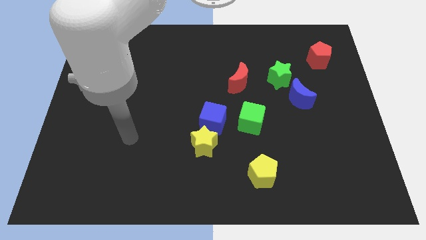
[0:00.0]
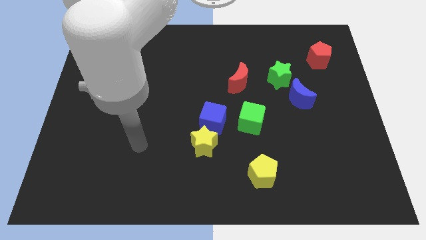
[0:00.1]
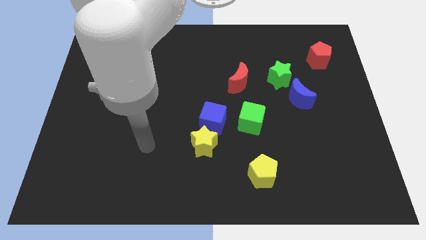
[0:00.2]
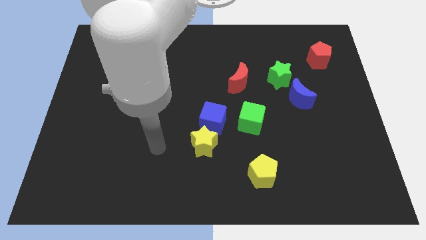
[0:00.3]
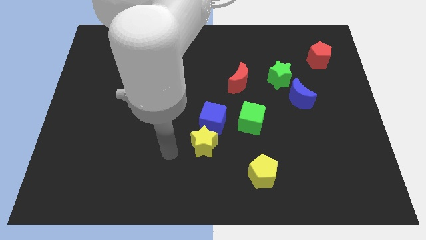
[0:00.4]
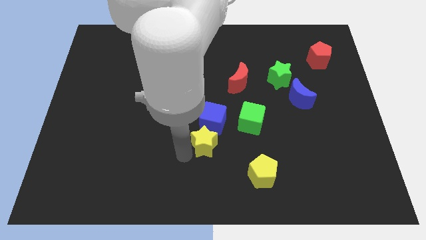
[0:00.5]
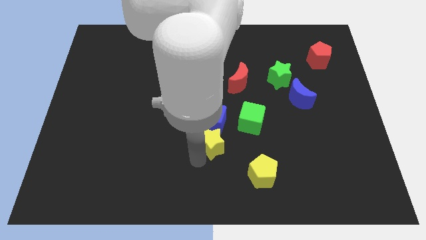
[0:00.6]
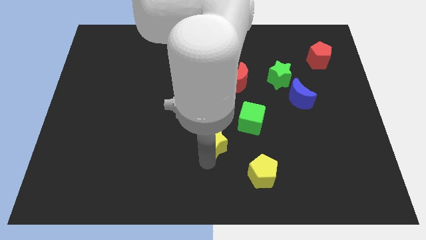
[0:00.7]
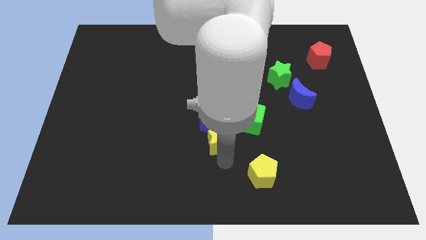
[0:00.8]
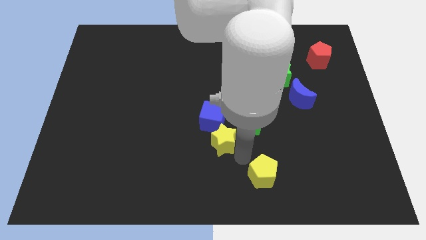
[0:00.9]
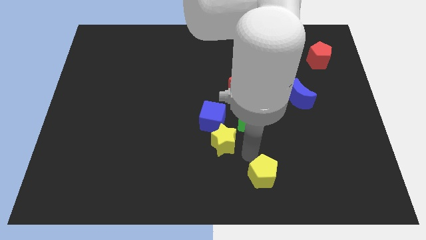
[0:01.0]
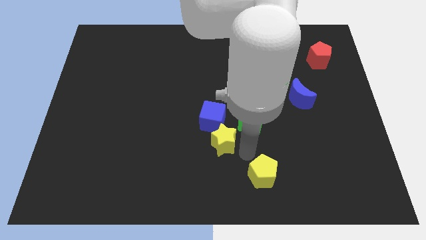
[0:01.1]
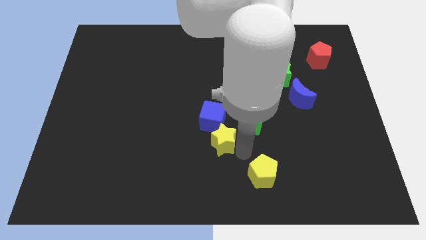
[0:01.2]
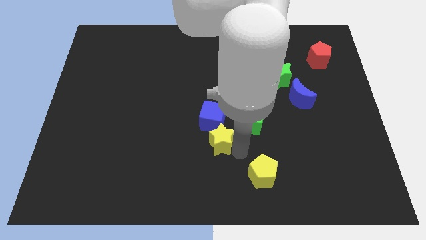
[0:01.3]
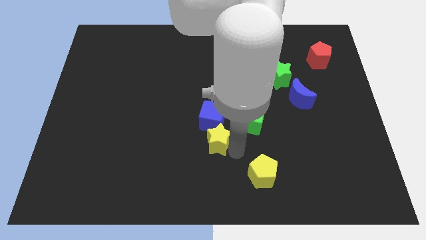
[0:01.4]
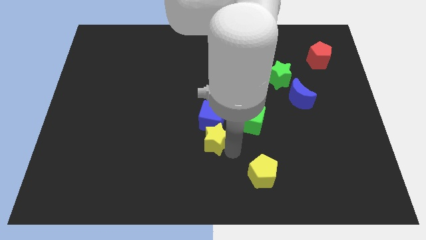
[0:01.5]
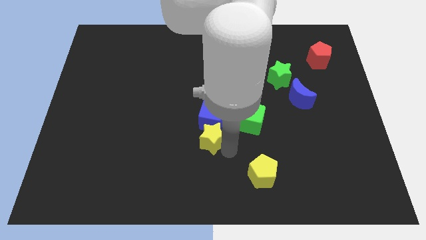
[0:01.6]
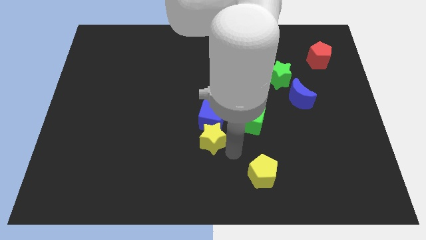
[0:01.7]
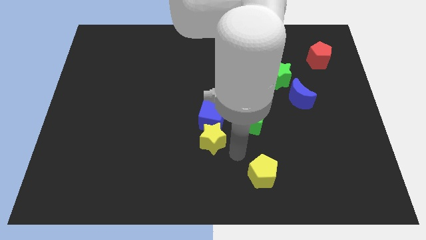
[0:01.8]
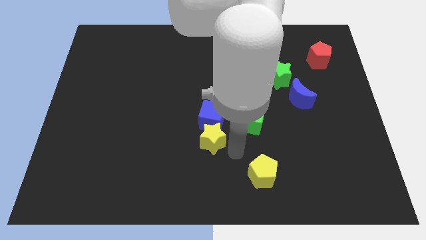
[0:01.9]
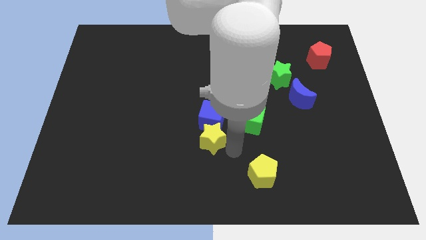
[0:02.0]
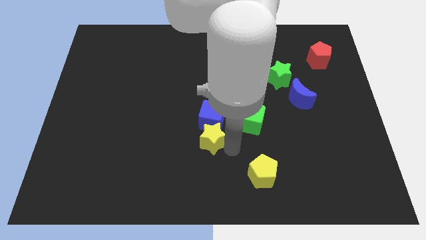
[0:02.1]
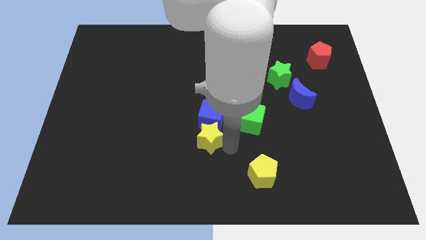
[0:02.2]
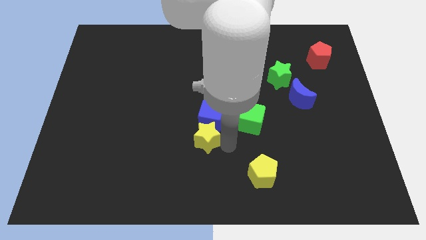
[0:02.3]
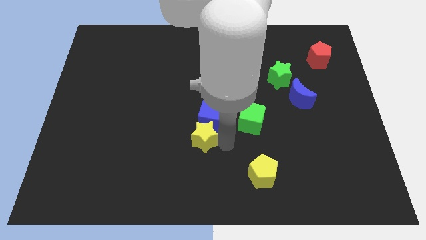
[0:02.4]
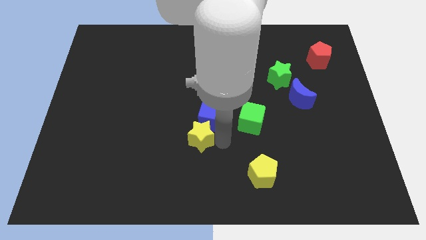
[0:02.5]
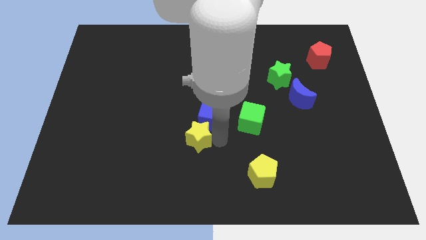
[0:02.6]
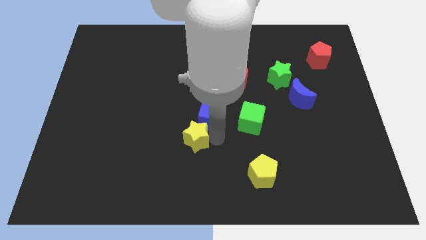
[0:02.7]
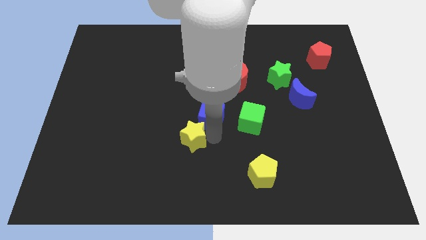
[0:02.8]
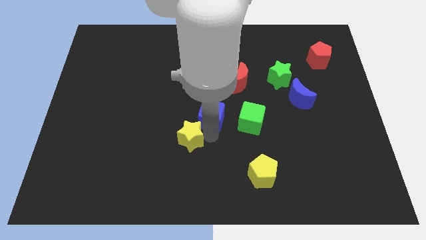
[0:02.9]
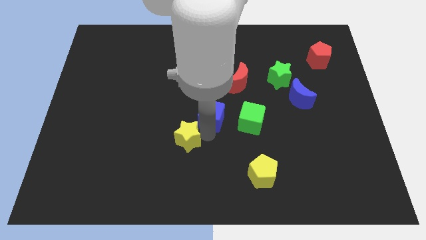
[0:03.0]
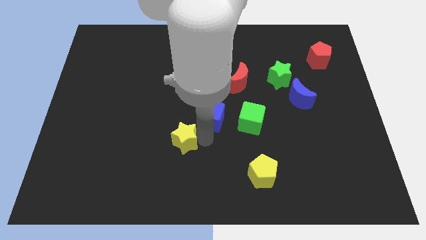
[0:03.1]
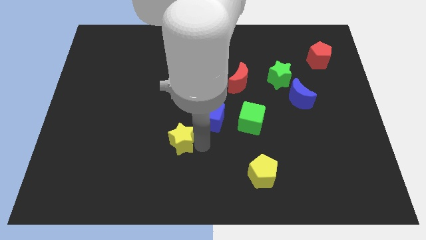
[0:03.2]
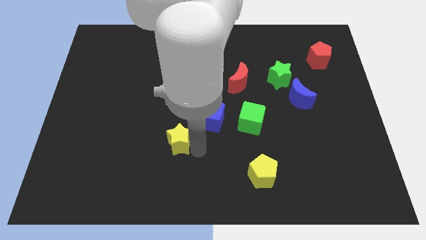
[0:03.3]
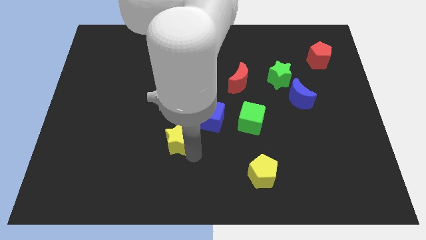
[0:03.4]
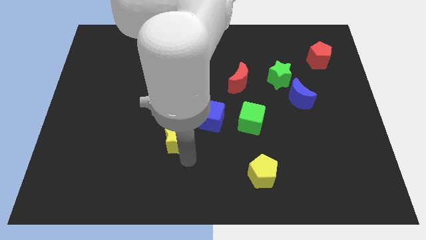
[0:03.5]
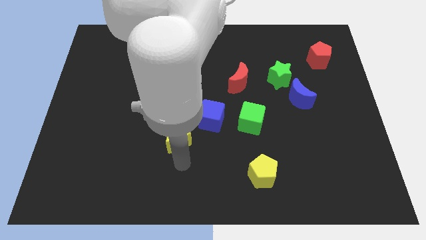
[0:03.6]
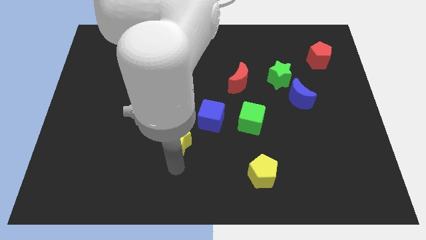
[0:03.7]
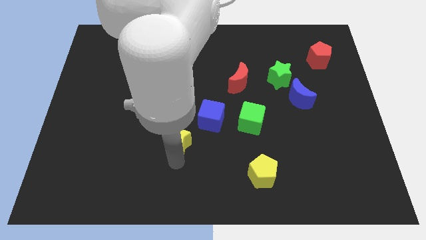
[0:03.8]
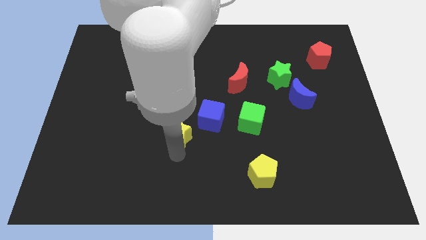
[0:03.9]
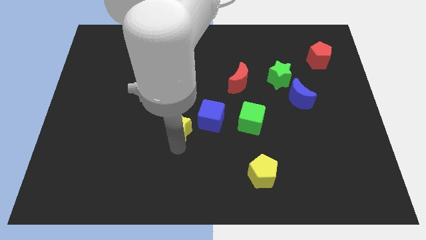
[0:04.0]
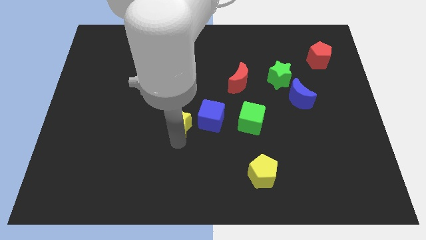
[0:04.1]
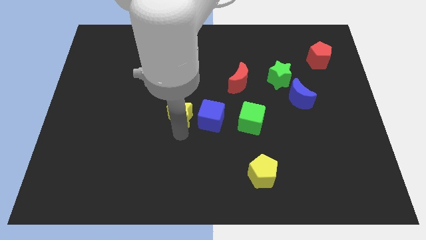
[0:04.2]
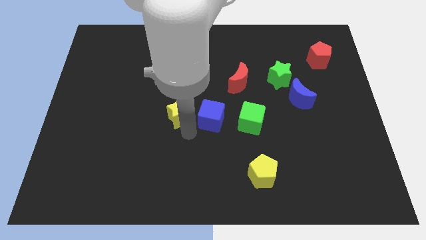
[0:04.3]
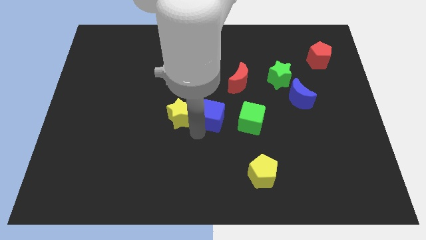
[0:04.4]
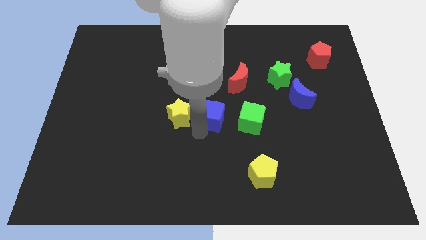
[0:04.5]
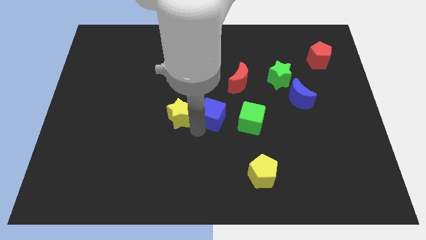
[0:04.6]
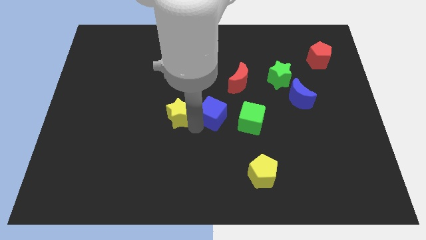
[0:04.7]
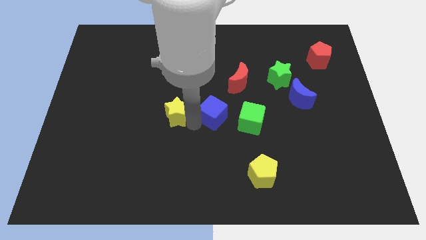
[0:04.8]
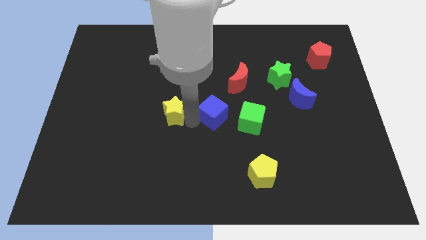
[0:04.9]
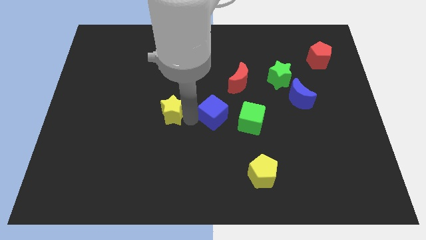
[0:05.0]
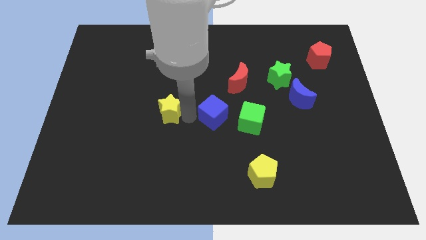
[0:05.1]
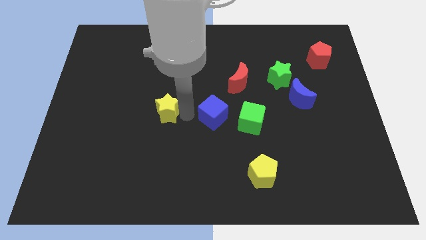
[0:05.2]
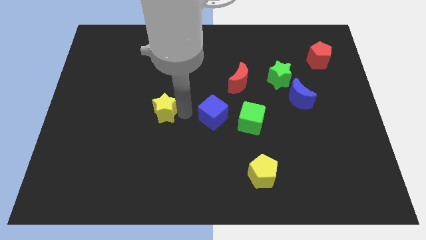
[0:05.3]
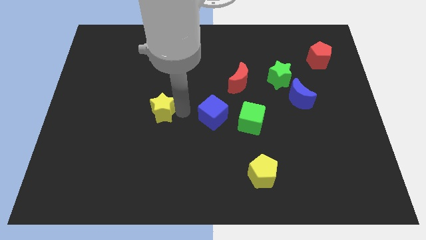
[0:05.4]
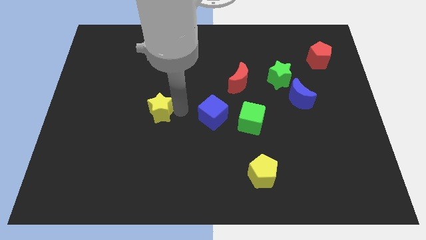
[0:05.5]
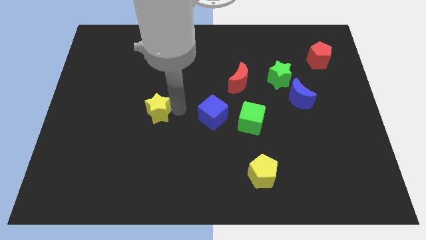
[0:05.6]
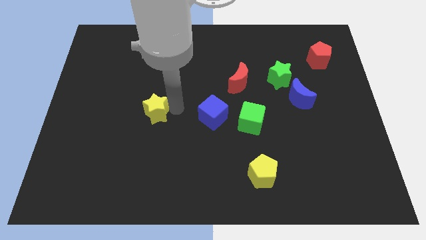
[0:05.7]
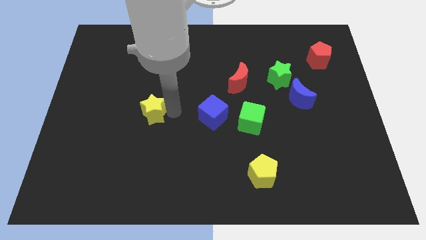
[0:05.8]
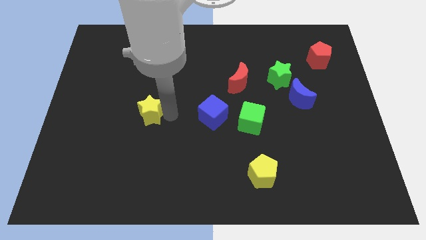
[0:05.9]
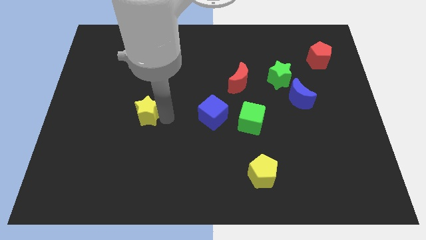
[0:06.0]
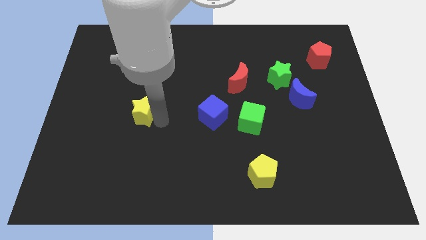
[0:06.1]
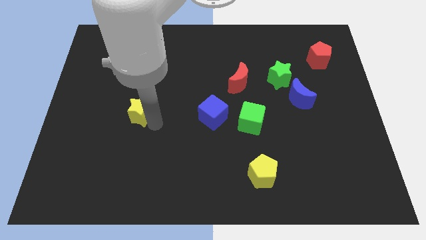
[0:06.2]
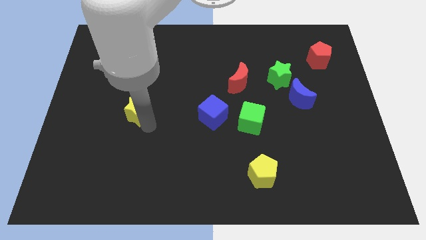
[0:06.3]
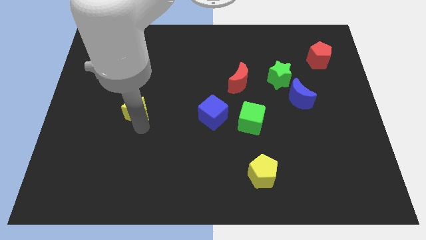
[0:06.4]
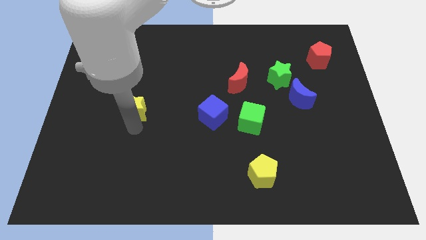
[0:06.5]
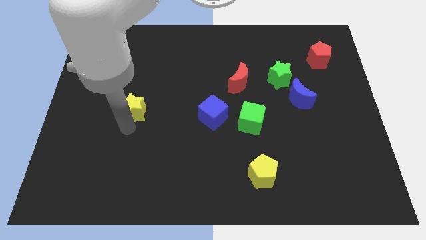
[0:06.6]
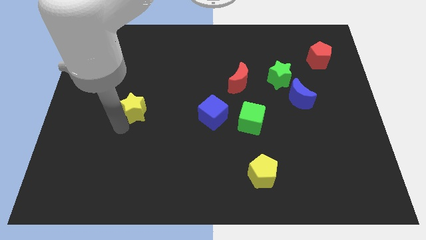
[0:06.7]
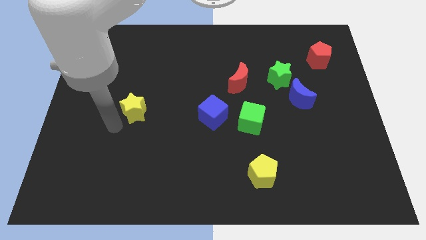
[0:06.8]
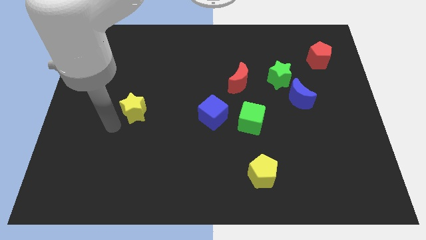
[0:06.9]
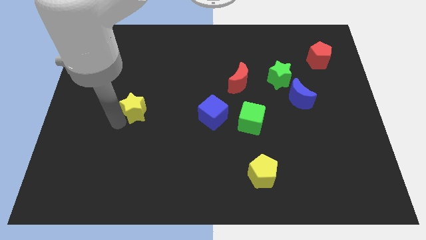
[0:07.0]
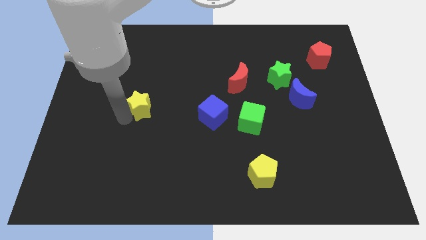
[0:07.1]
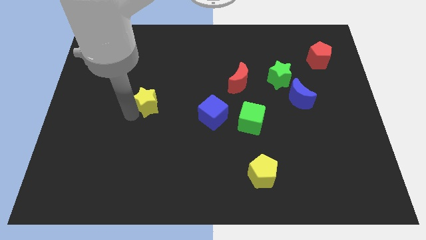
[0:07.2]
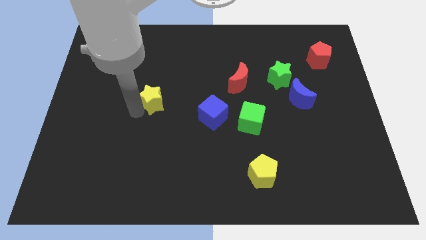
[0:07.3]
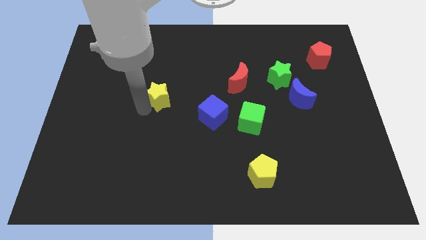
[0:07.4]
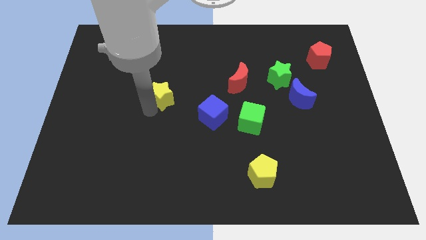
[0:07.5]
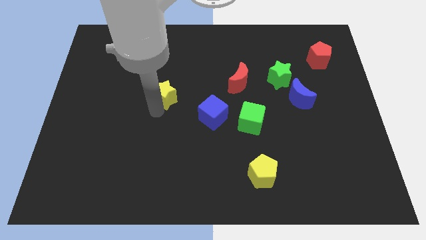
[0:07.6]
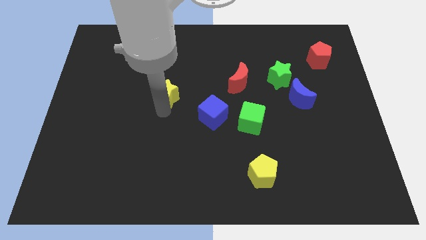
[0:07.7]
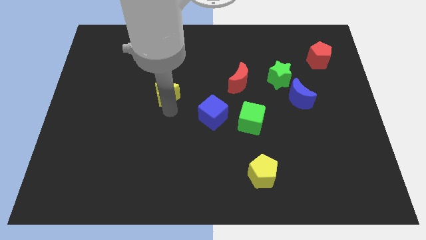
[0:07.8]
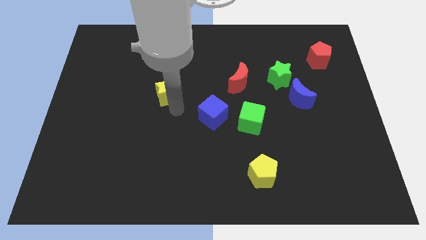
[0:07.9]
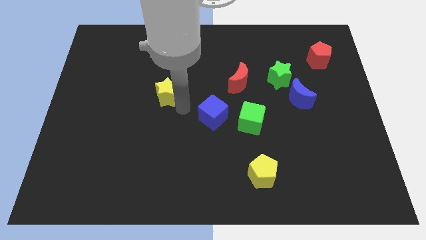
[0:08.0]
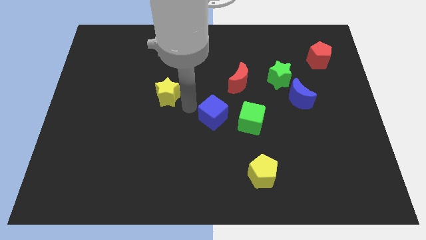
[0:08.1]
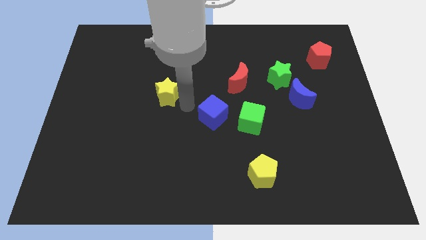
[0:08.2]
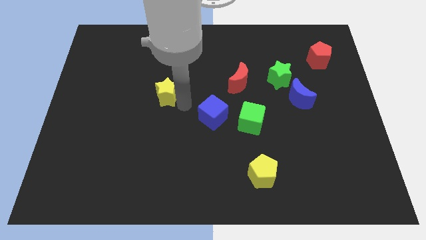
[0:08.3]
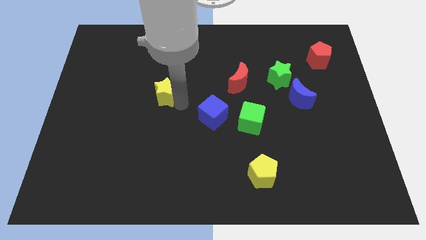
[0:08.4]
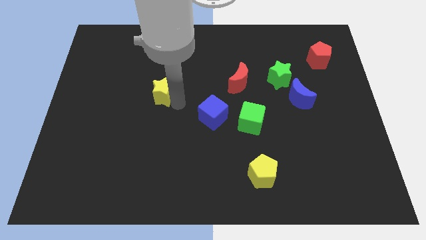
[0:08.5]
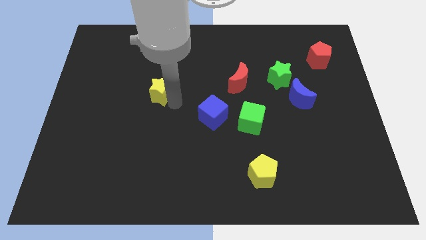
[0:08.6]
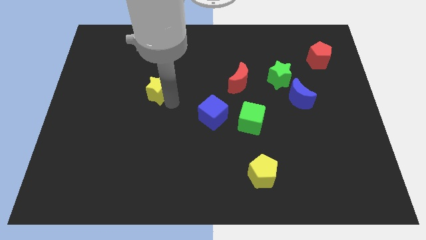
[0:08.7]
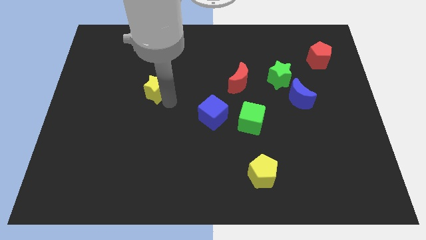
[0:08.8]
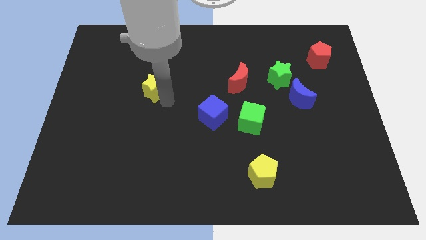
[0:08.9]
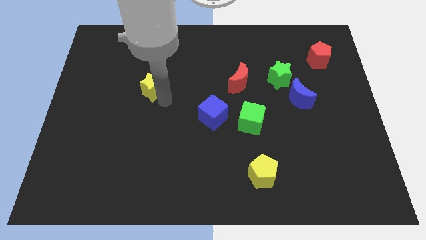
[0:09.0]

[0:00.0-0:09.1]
move the yellow star up and then to the left
